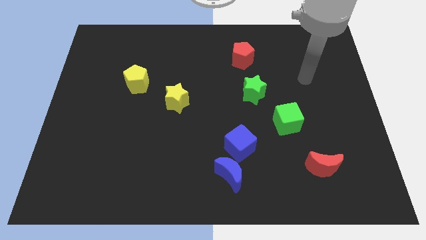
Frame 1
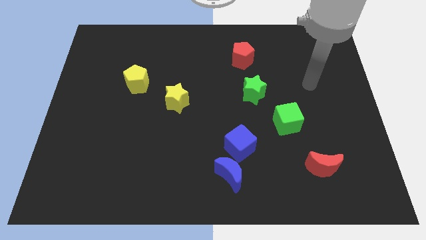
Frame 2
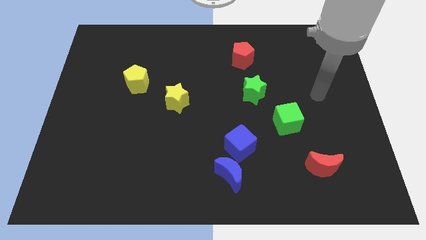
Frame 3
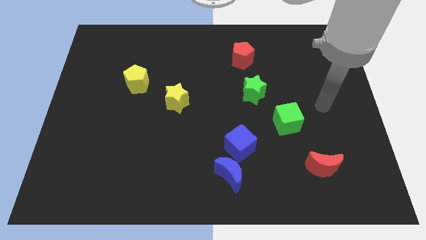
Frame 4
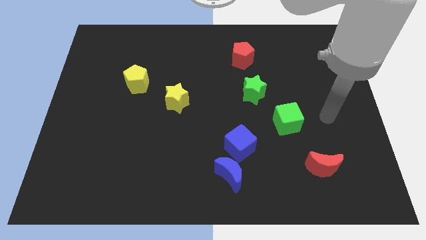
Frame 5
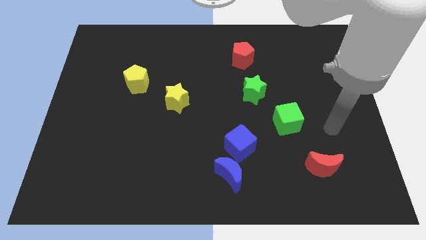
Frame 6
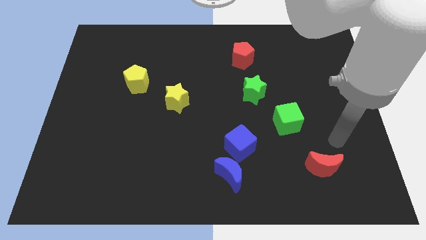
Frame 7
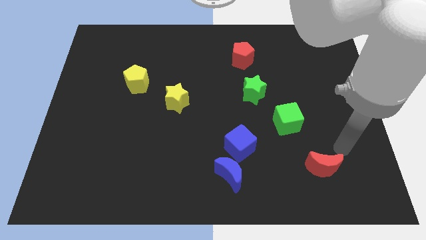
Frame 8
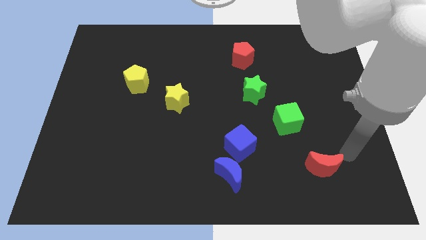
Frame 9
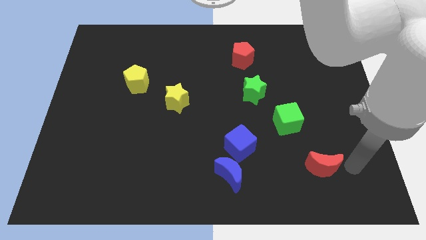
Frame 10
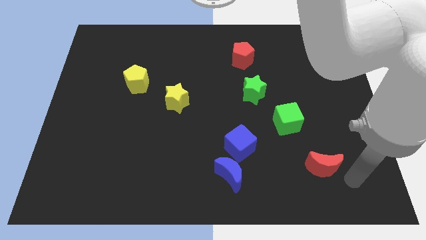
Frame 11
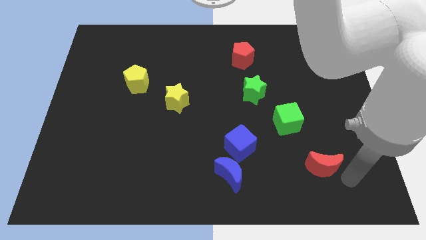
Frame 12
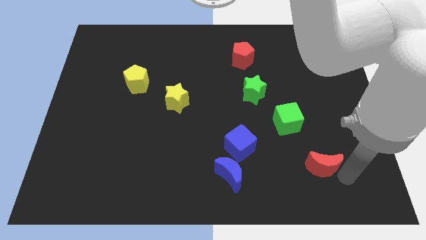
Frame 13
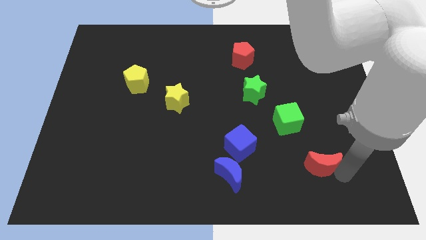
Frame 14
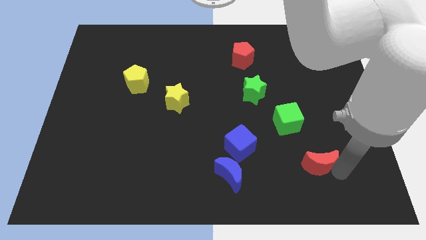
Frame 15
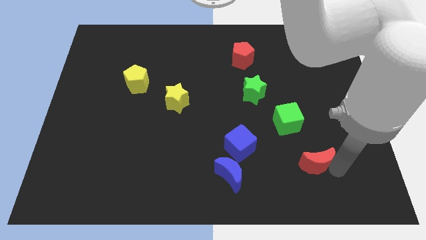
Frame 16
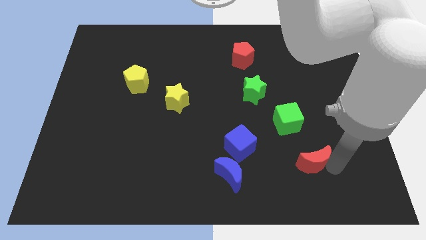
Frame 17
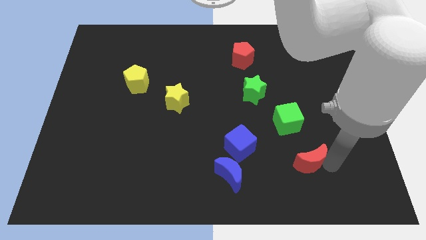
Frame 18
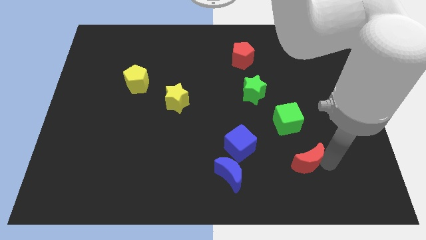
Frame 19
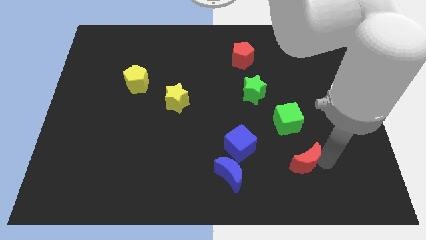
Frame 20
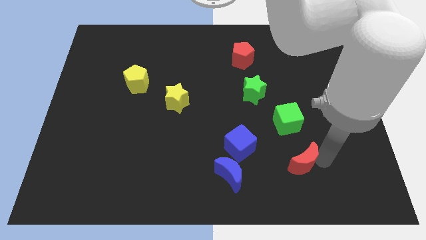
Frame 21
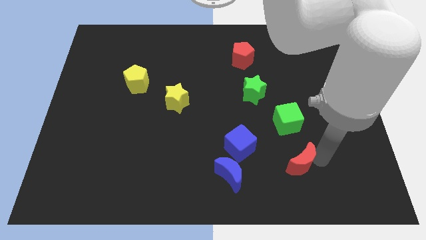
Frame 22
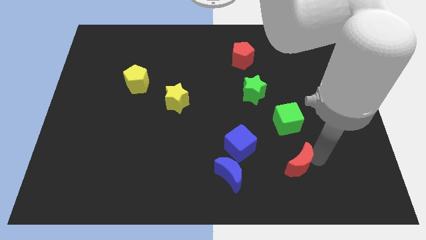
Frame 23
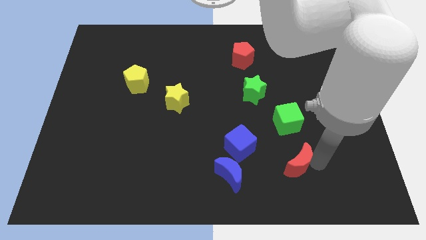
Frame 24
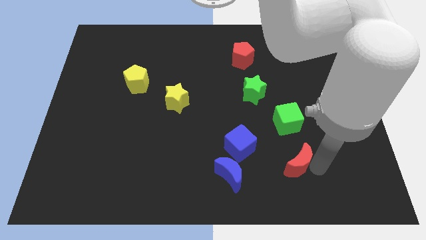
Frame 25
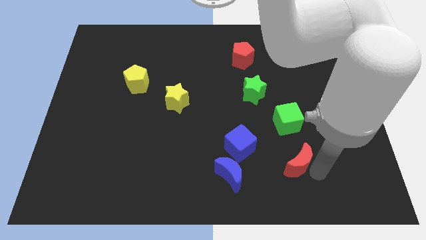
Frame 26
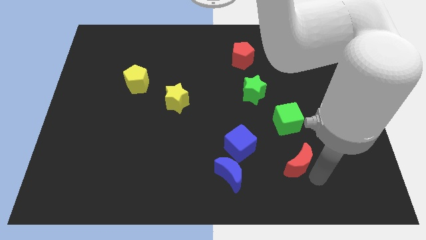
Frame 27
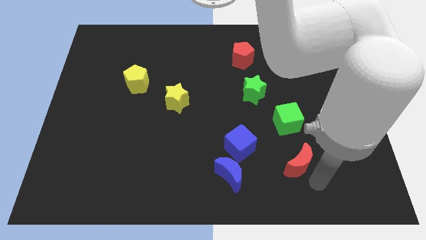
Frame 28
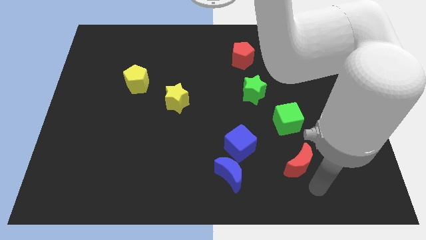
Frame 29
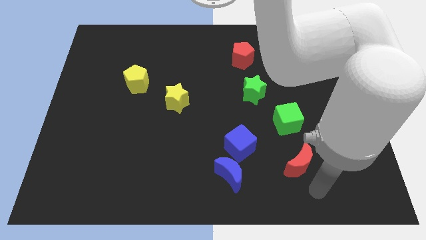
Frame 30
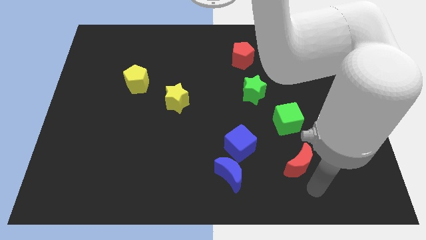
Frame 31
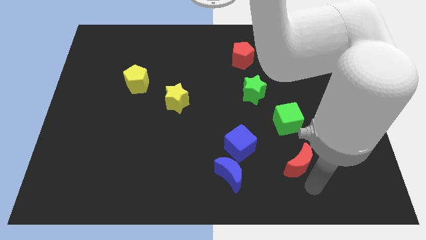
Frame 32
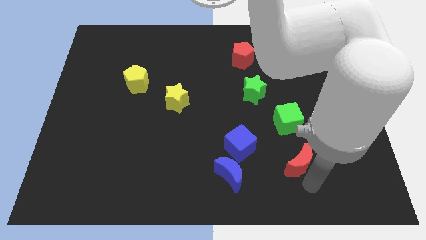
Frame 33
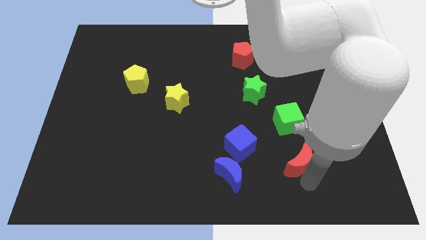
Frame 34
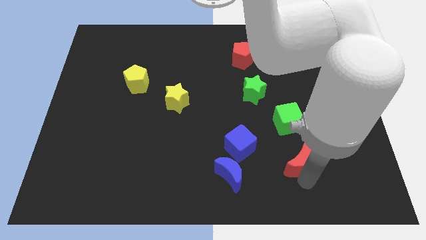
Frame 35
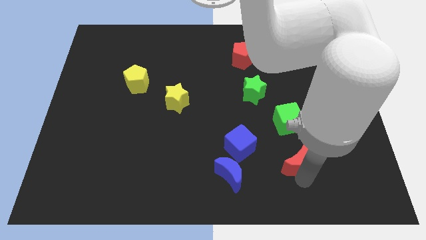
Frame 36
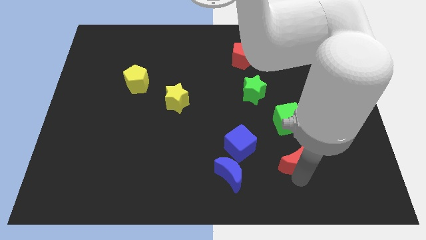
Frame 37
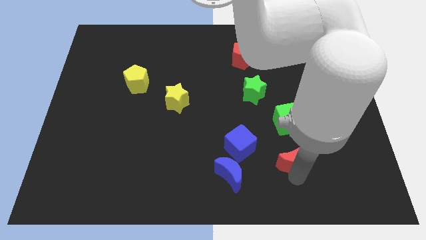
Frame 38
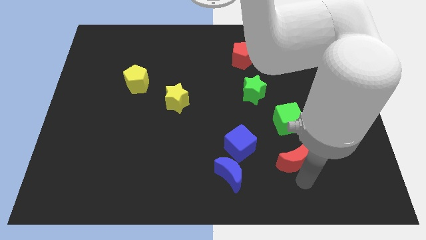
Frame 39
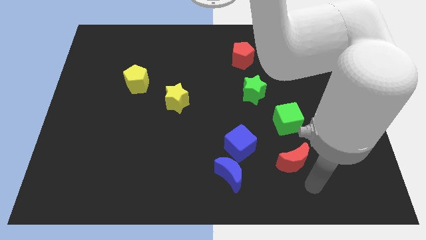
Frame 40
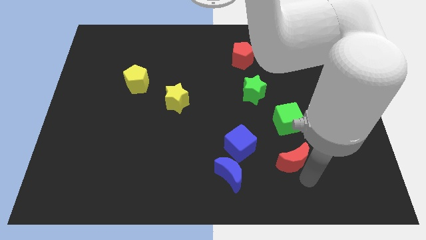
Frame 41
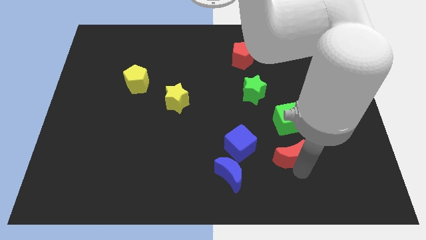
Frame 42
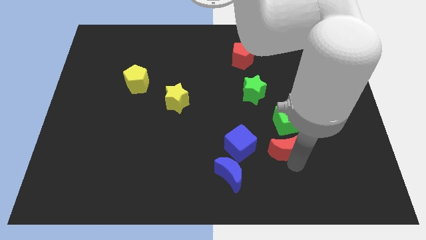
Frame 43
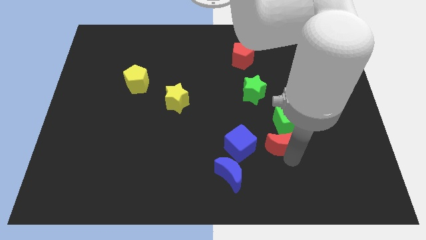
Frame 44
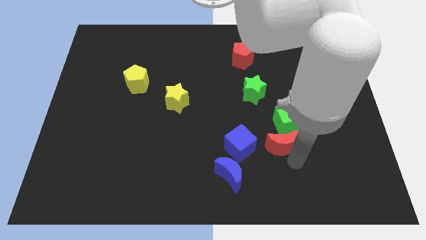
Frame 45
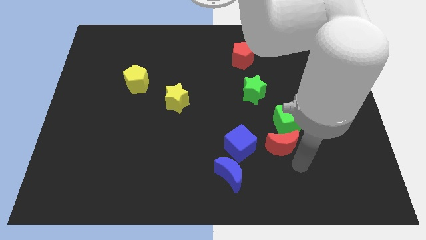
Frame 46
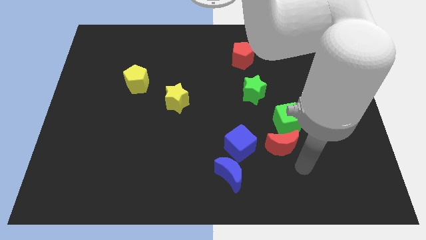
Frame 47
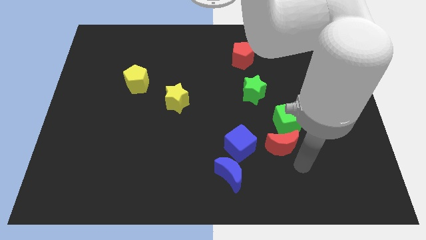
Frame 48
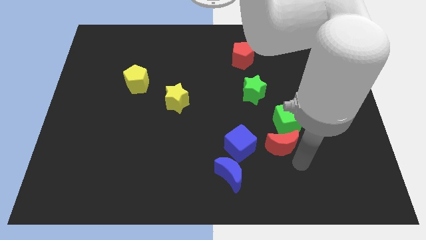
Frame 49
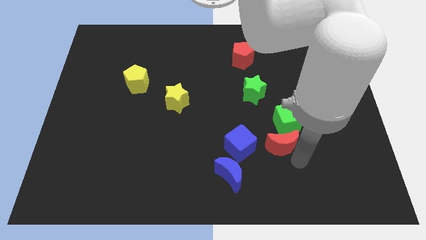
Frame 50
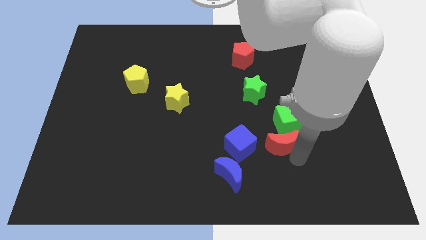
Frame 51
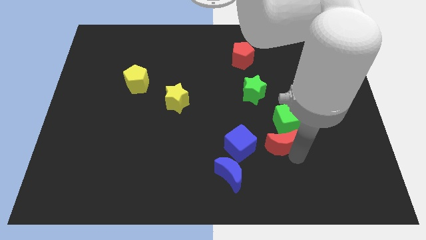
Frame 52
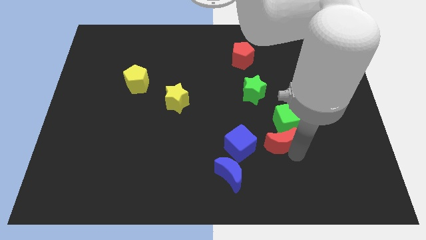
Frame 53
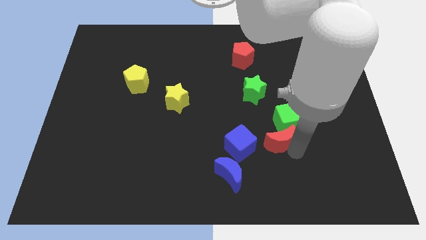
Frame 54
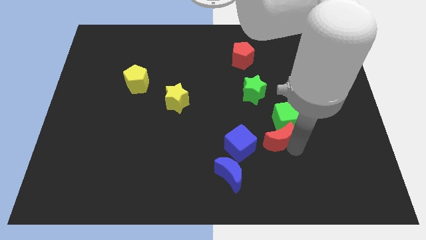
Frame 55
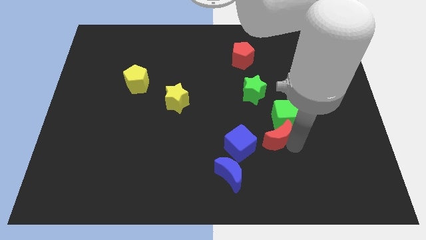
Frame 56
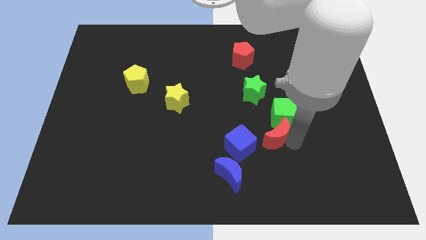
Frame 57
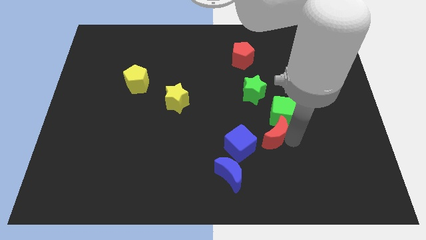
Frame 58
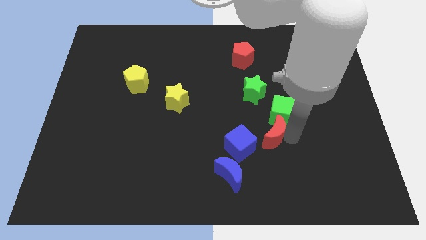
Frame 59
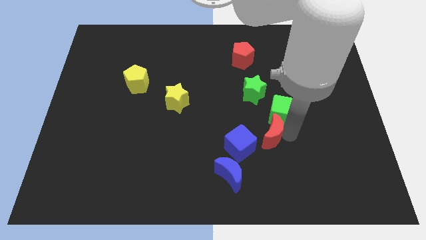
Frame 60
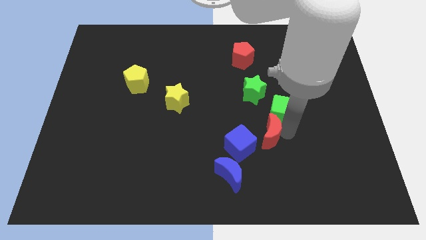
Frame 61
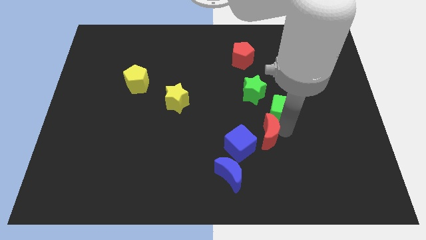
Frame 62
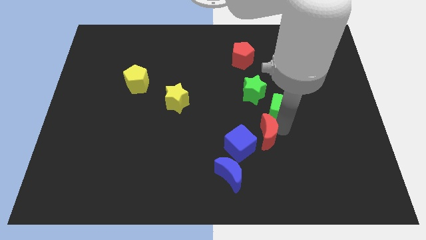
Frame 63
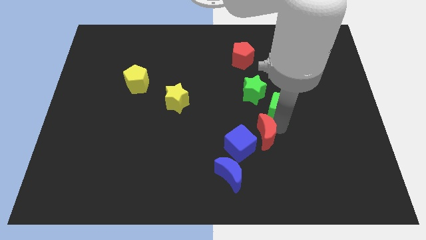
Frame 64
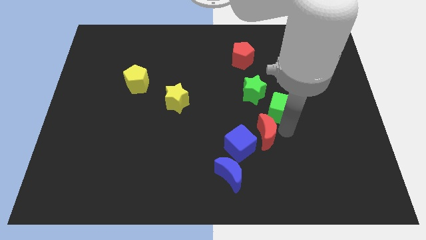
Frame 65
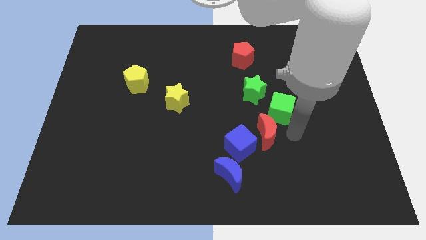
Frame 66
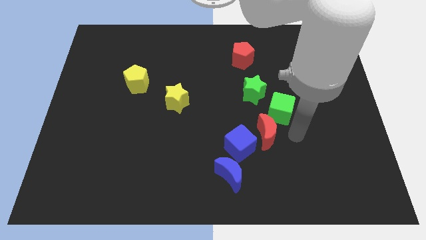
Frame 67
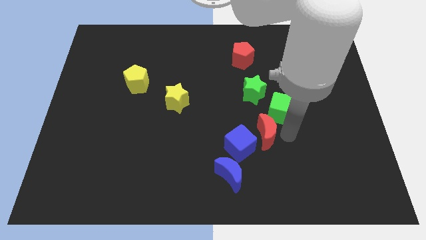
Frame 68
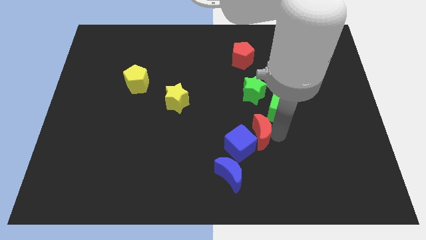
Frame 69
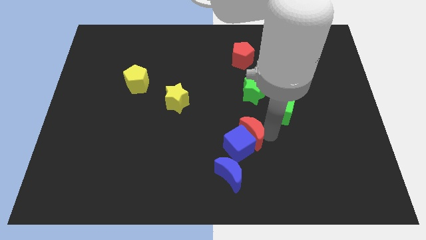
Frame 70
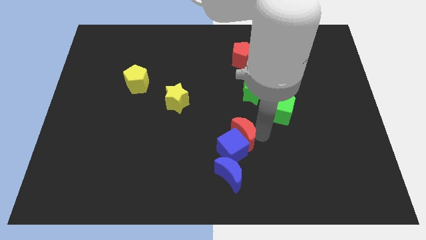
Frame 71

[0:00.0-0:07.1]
slide the red moon above the blue moon
